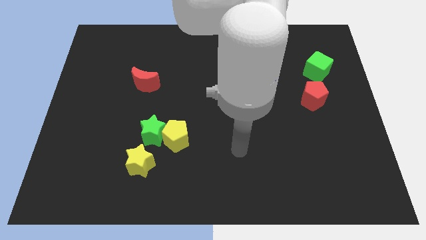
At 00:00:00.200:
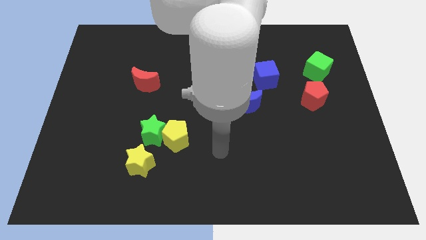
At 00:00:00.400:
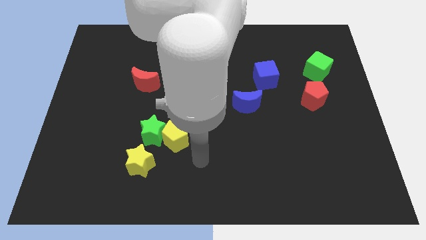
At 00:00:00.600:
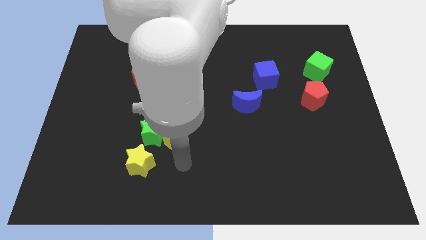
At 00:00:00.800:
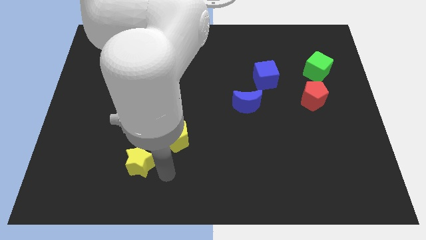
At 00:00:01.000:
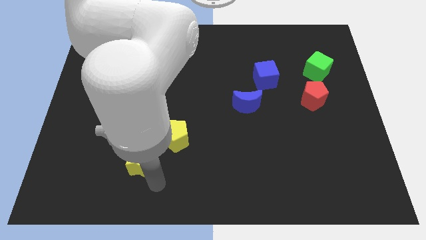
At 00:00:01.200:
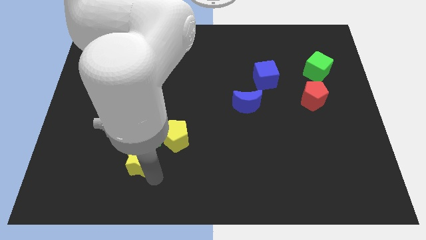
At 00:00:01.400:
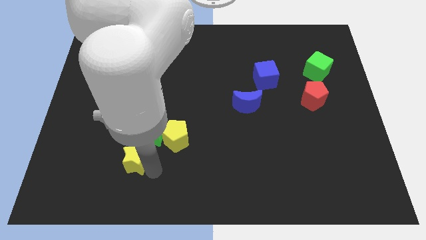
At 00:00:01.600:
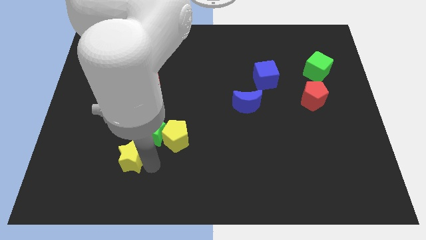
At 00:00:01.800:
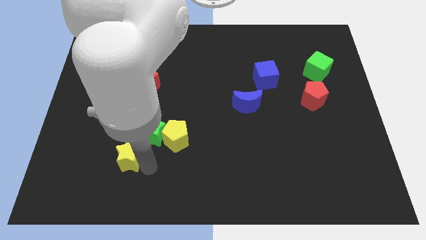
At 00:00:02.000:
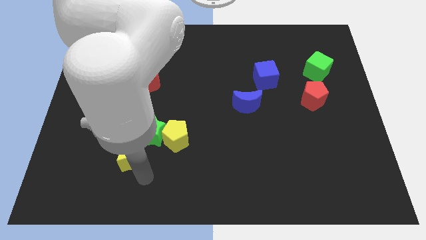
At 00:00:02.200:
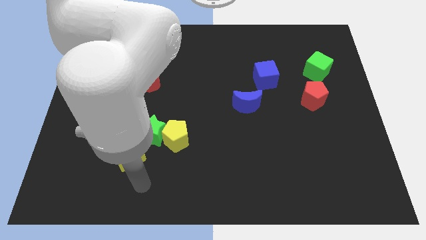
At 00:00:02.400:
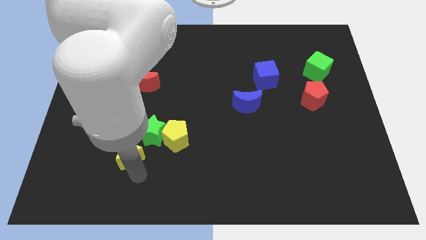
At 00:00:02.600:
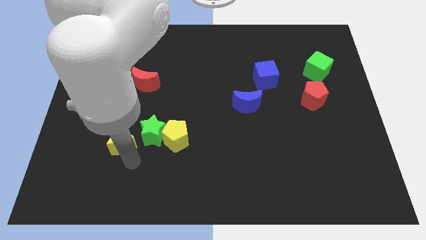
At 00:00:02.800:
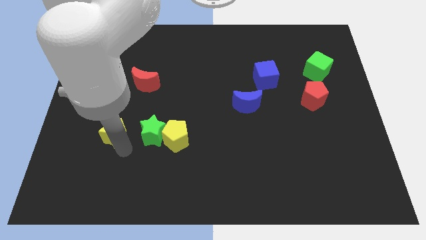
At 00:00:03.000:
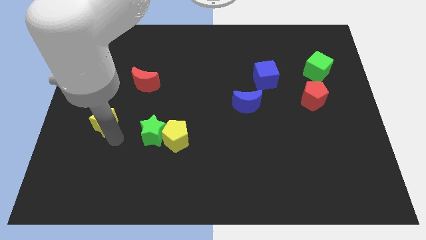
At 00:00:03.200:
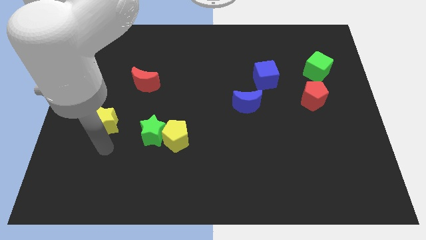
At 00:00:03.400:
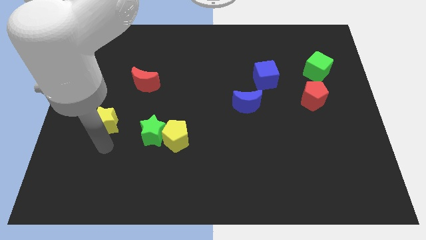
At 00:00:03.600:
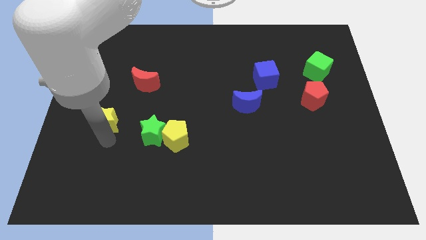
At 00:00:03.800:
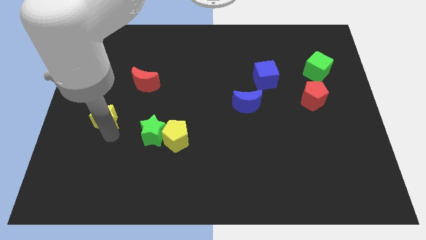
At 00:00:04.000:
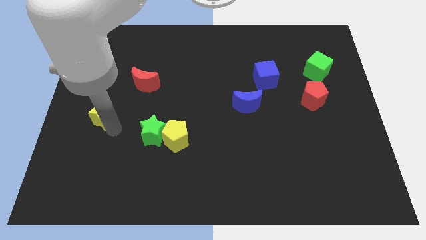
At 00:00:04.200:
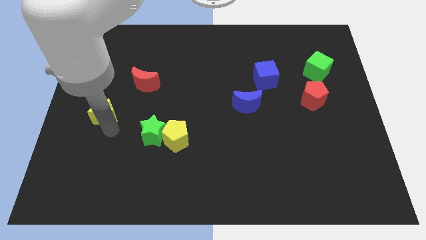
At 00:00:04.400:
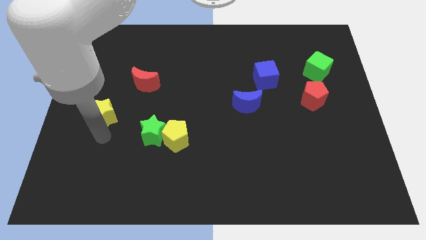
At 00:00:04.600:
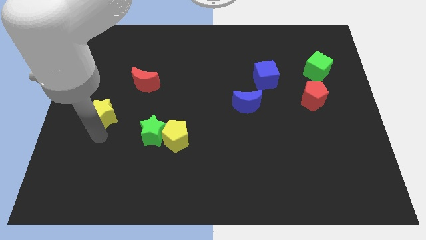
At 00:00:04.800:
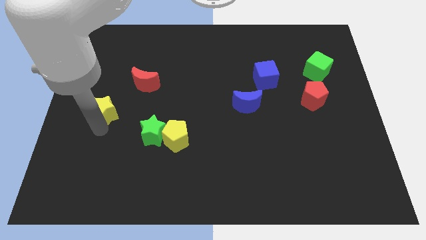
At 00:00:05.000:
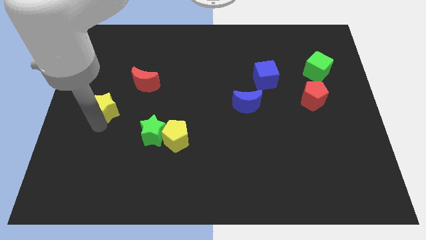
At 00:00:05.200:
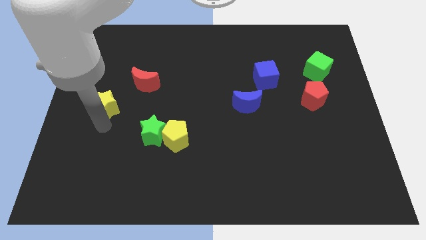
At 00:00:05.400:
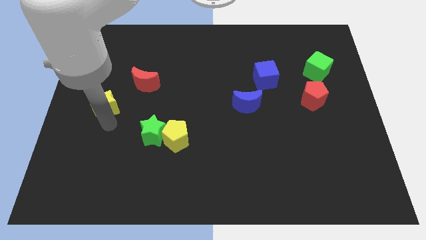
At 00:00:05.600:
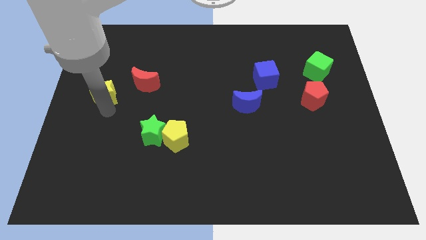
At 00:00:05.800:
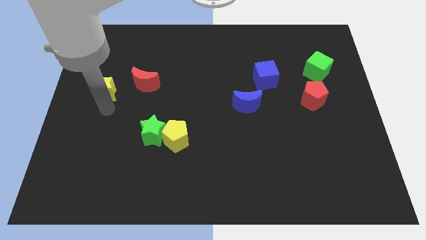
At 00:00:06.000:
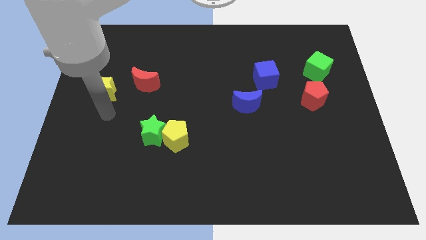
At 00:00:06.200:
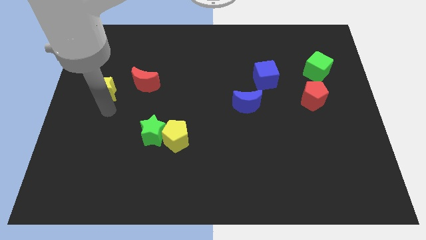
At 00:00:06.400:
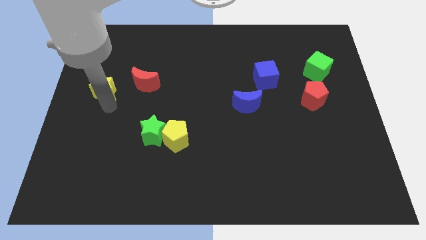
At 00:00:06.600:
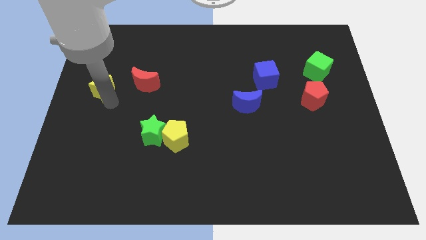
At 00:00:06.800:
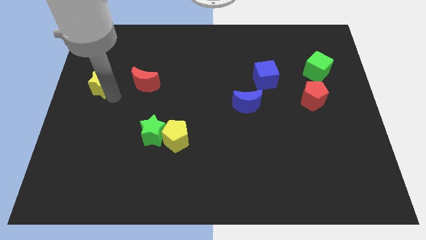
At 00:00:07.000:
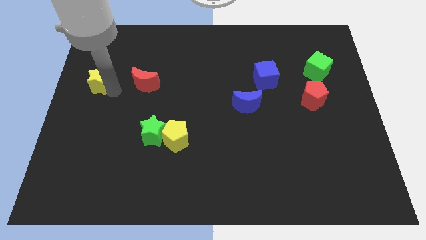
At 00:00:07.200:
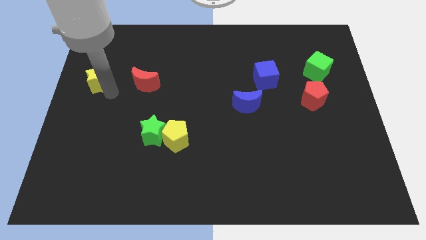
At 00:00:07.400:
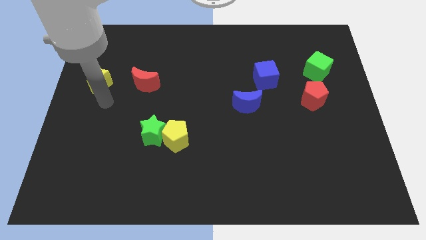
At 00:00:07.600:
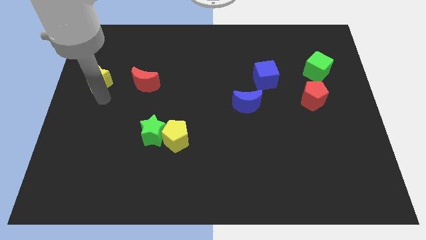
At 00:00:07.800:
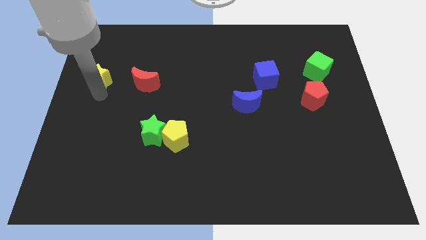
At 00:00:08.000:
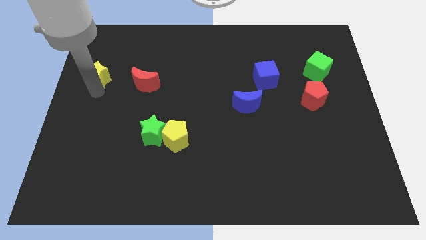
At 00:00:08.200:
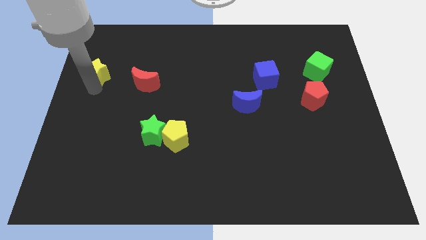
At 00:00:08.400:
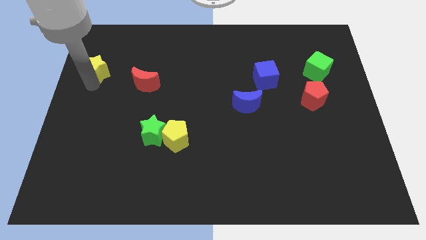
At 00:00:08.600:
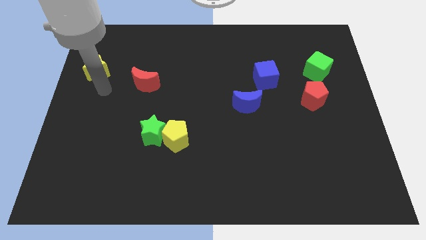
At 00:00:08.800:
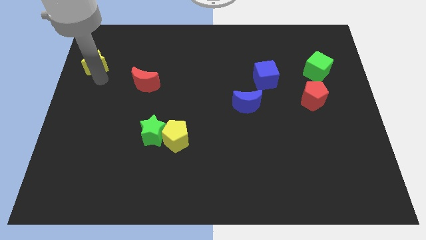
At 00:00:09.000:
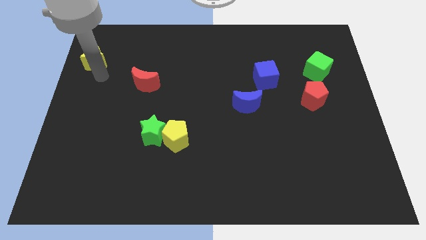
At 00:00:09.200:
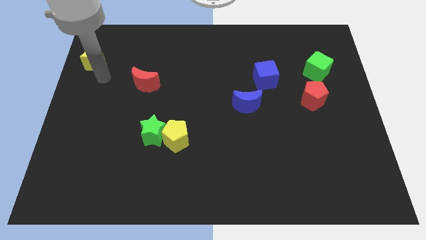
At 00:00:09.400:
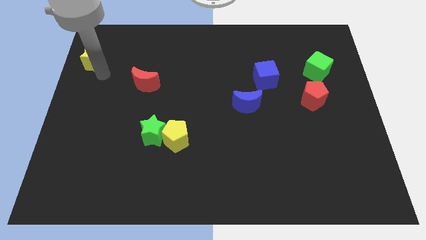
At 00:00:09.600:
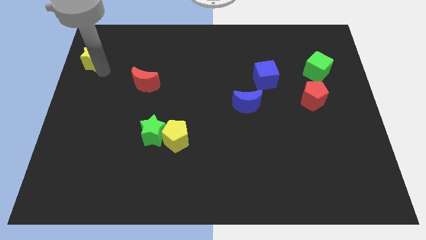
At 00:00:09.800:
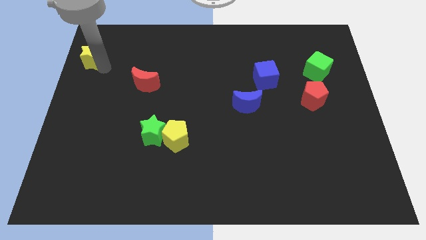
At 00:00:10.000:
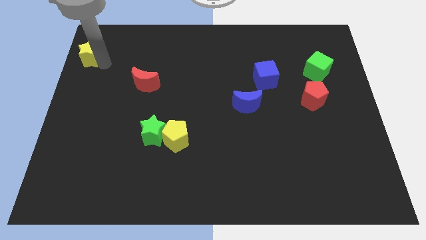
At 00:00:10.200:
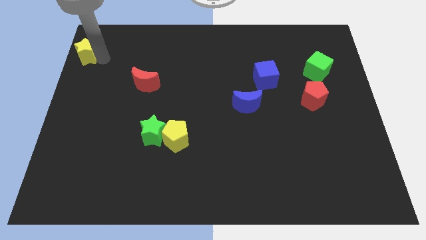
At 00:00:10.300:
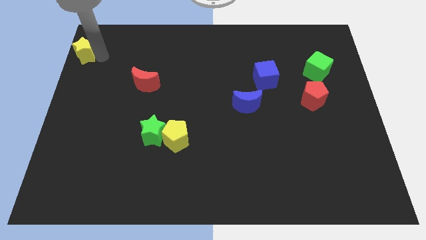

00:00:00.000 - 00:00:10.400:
move the yellow star to the top left of the board
